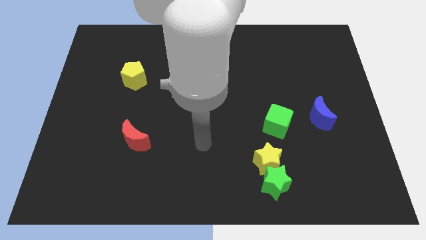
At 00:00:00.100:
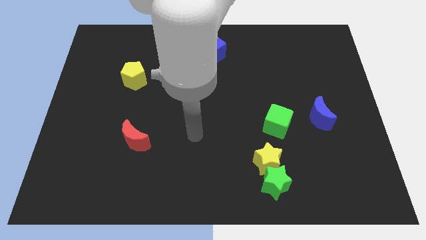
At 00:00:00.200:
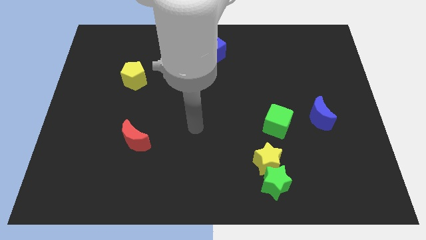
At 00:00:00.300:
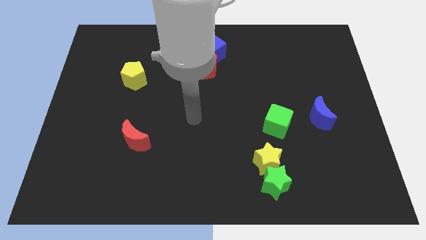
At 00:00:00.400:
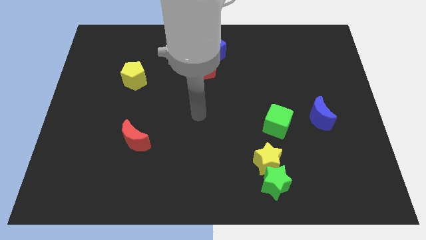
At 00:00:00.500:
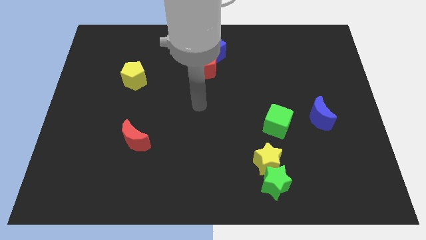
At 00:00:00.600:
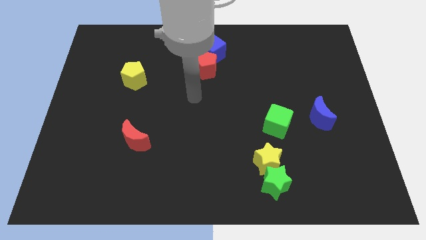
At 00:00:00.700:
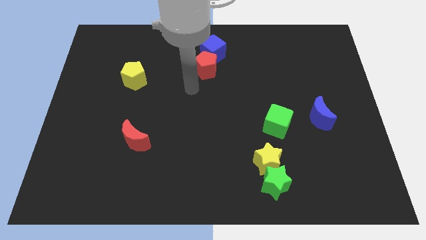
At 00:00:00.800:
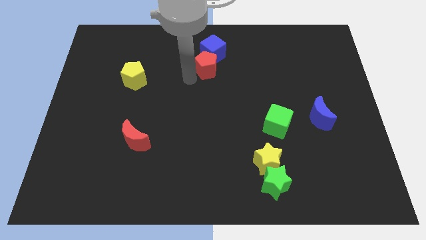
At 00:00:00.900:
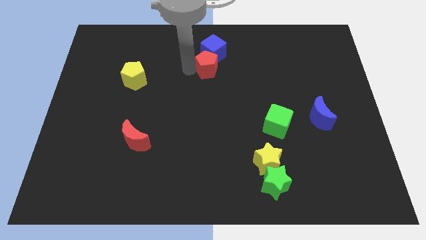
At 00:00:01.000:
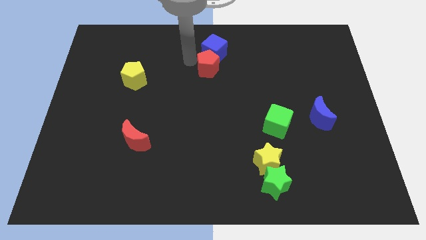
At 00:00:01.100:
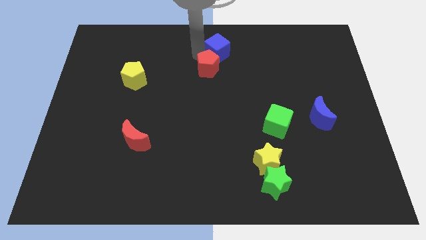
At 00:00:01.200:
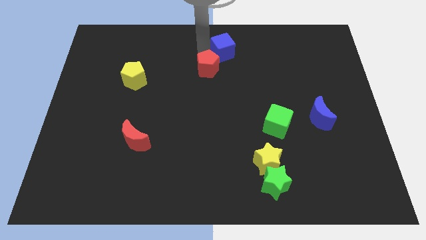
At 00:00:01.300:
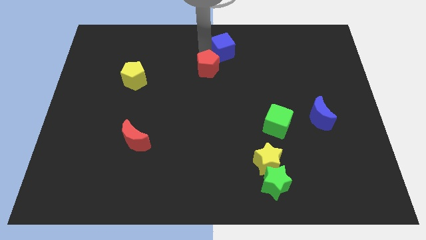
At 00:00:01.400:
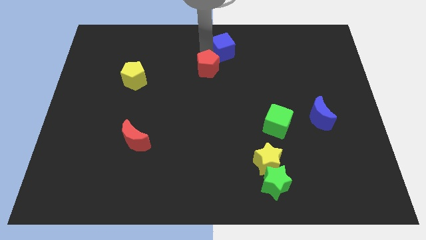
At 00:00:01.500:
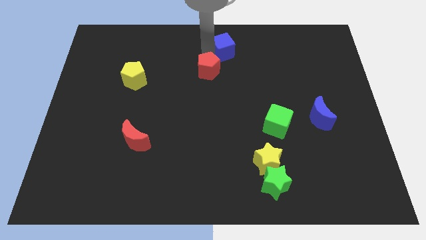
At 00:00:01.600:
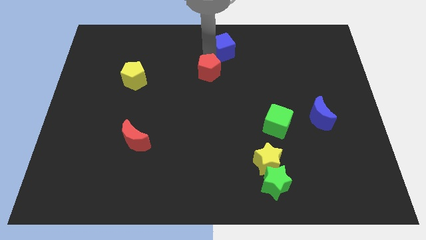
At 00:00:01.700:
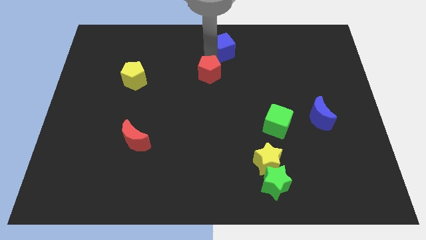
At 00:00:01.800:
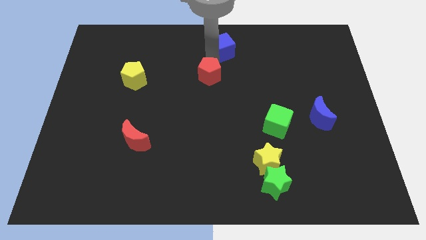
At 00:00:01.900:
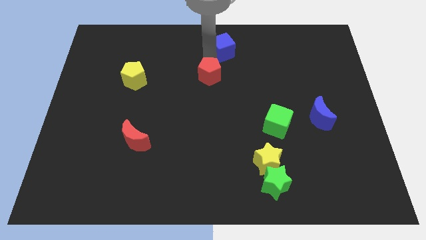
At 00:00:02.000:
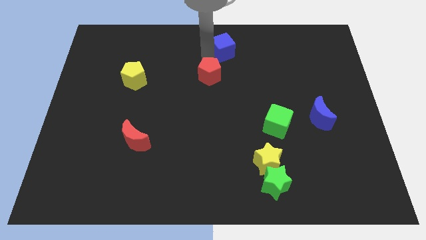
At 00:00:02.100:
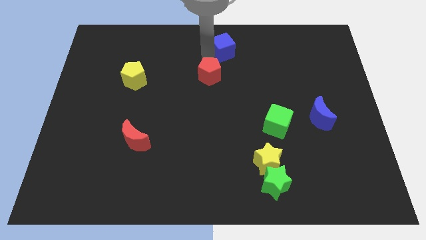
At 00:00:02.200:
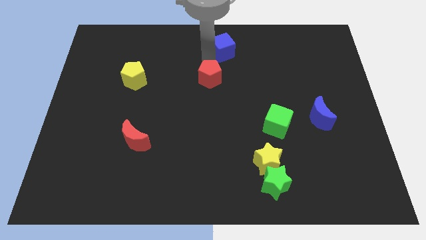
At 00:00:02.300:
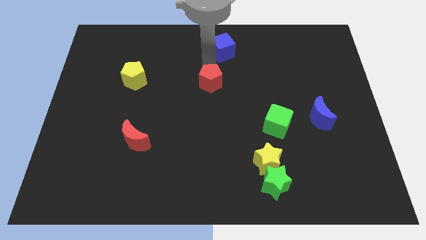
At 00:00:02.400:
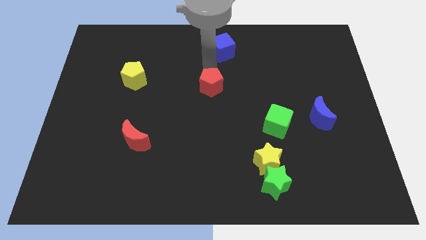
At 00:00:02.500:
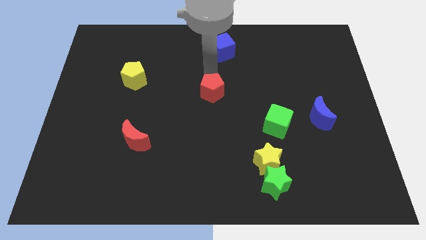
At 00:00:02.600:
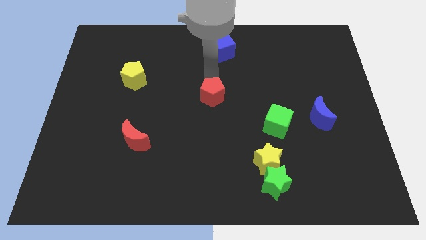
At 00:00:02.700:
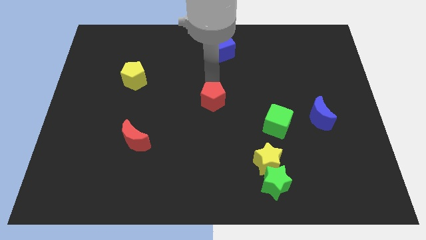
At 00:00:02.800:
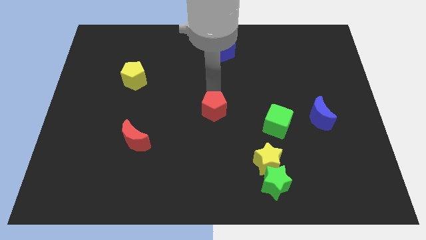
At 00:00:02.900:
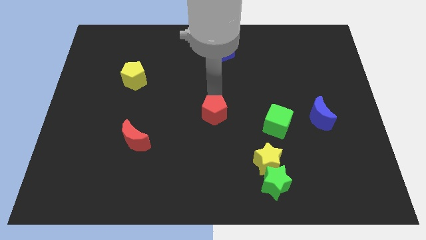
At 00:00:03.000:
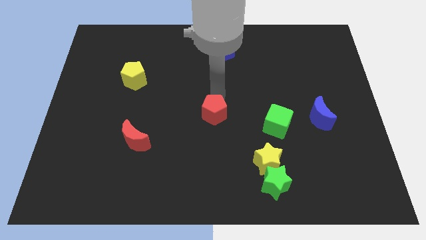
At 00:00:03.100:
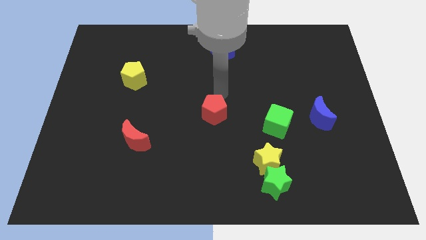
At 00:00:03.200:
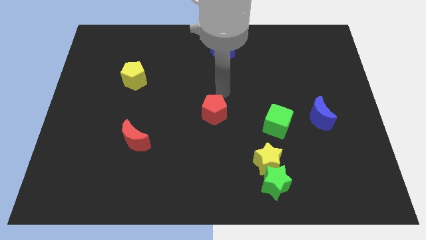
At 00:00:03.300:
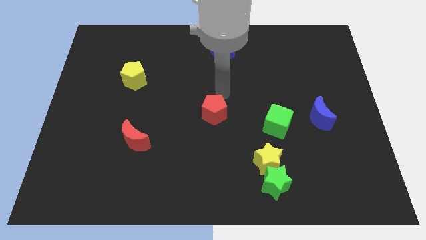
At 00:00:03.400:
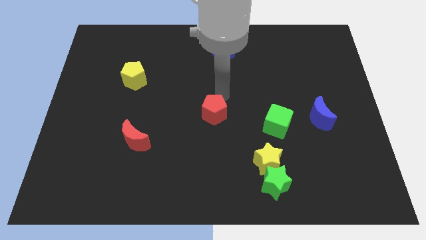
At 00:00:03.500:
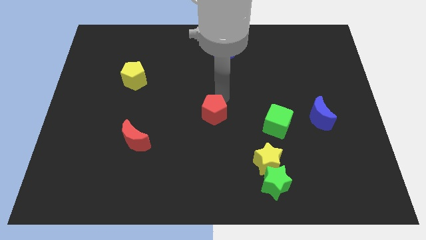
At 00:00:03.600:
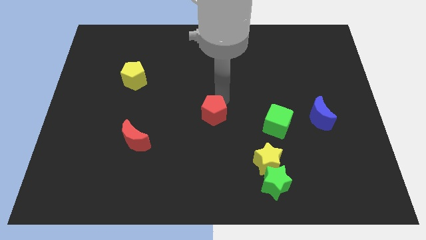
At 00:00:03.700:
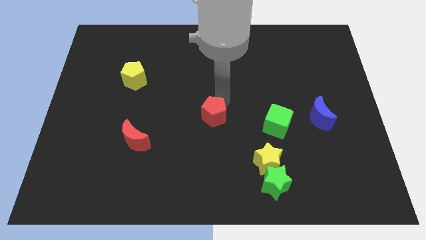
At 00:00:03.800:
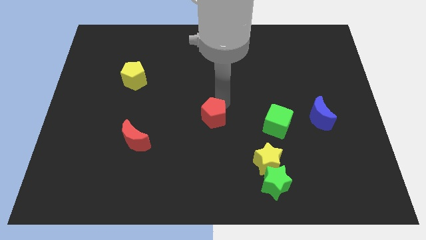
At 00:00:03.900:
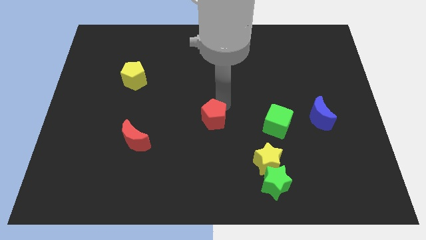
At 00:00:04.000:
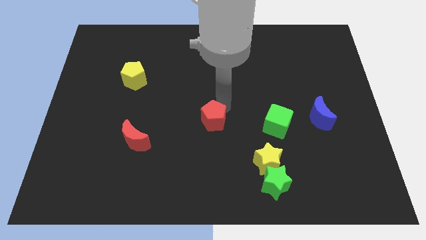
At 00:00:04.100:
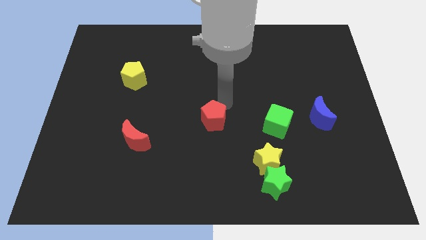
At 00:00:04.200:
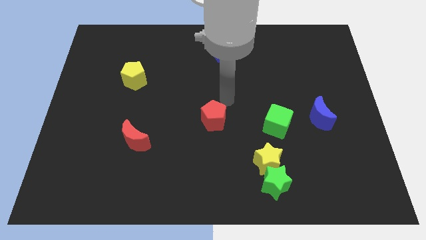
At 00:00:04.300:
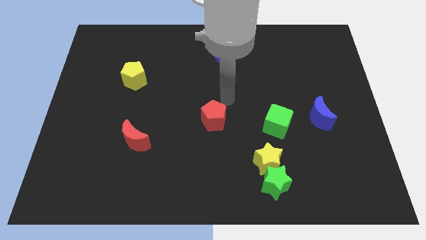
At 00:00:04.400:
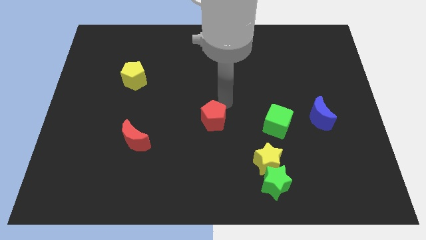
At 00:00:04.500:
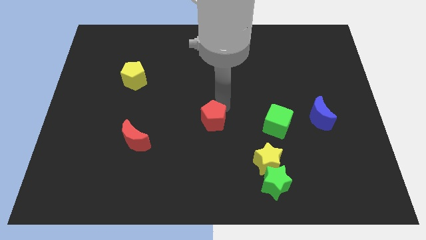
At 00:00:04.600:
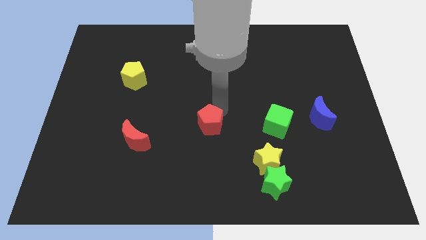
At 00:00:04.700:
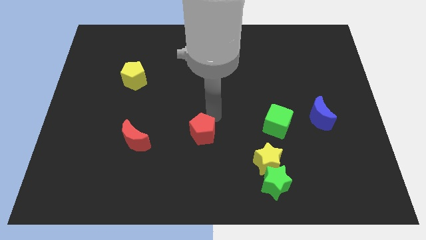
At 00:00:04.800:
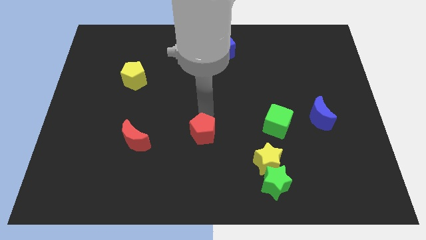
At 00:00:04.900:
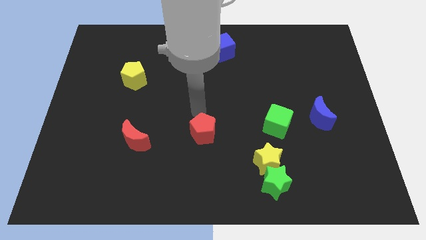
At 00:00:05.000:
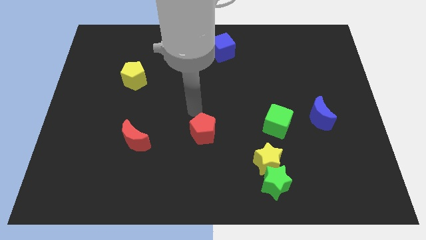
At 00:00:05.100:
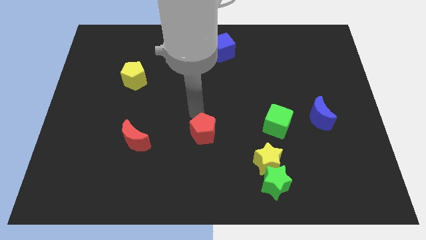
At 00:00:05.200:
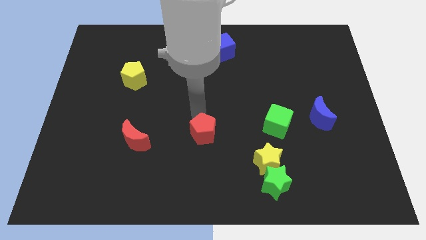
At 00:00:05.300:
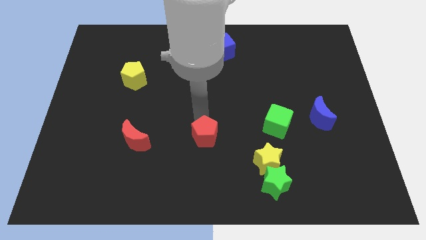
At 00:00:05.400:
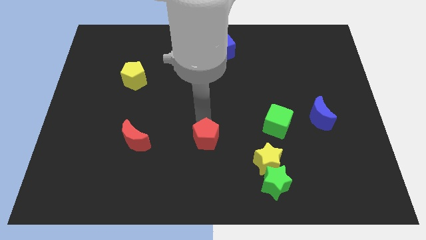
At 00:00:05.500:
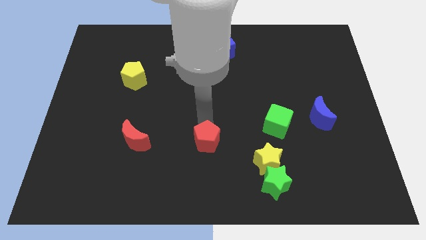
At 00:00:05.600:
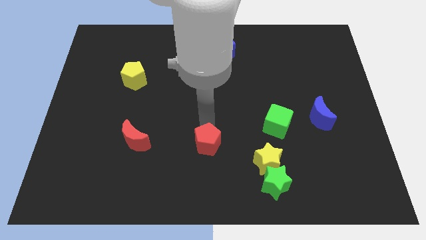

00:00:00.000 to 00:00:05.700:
put the red pentagon to the left side of the yellow star
